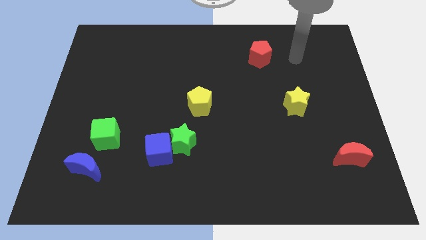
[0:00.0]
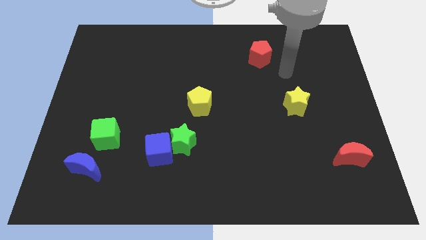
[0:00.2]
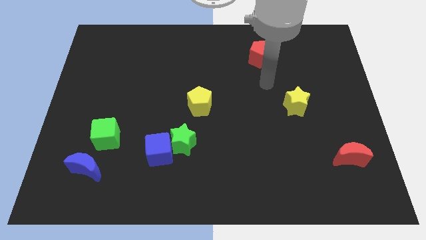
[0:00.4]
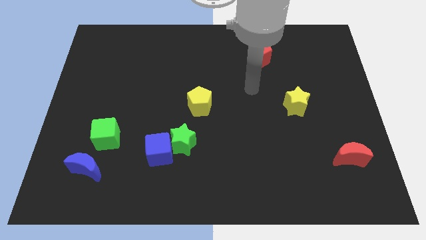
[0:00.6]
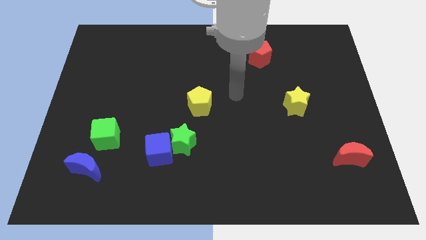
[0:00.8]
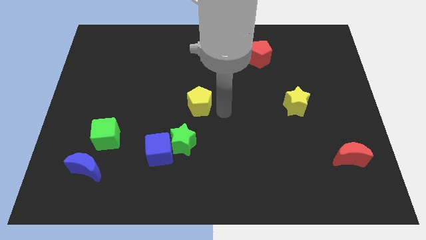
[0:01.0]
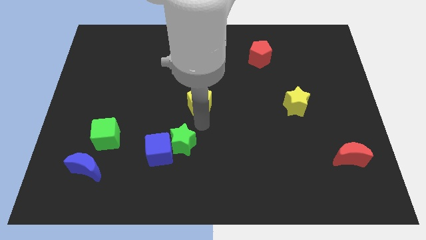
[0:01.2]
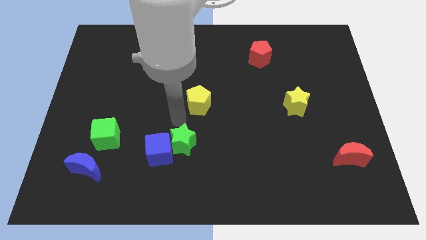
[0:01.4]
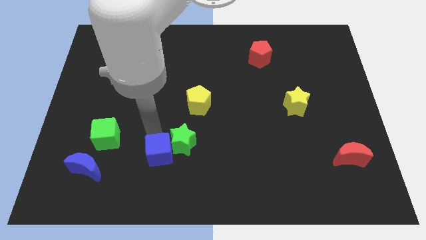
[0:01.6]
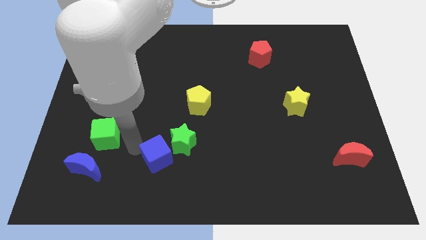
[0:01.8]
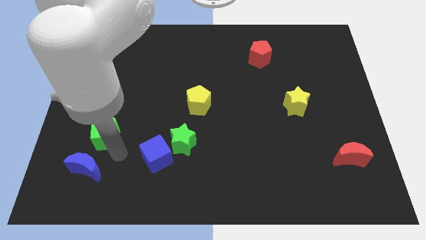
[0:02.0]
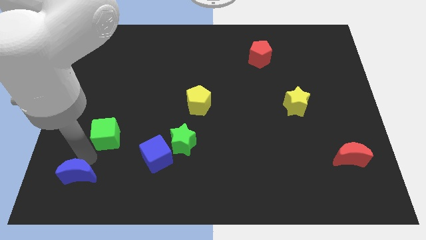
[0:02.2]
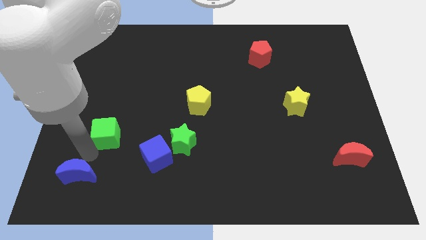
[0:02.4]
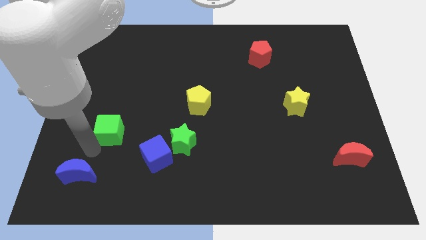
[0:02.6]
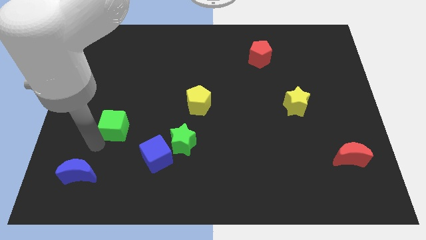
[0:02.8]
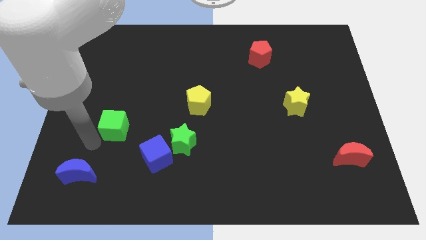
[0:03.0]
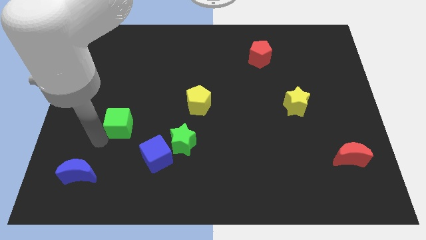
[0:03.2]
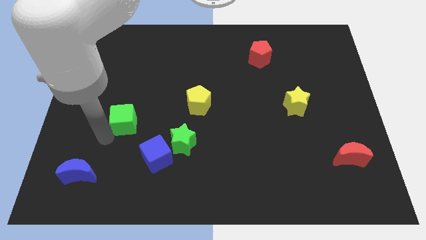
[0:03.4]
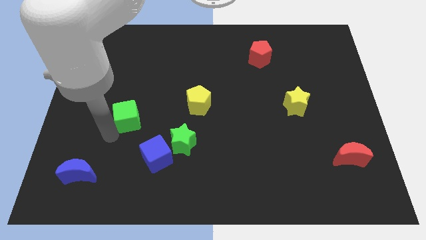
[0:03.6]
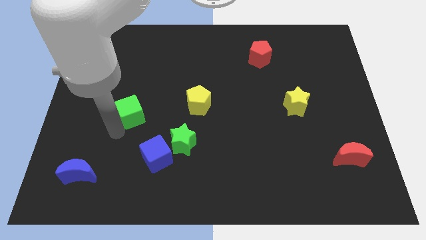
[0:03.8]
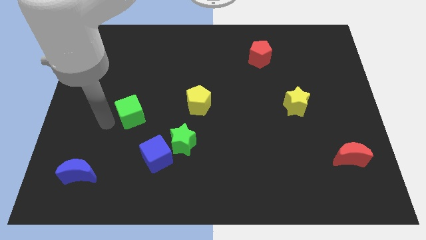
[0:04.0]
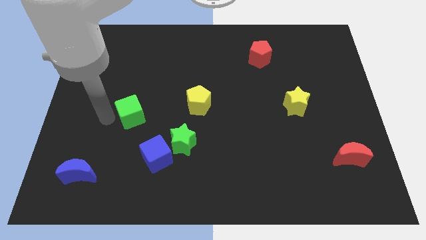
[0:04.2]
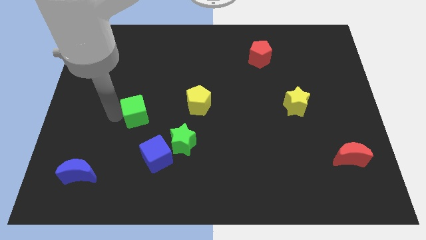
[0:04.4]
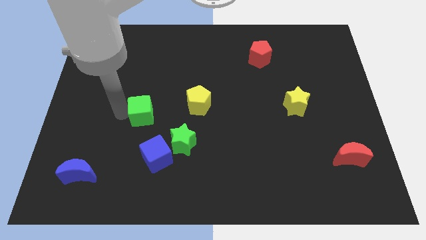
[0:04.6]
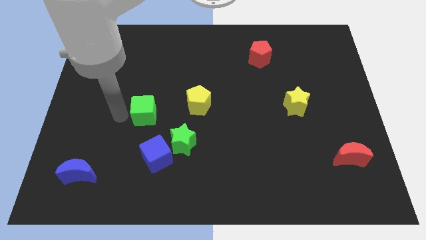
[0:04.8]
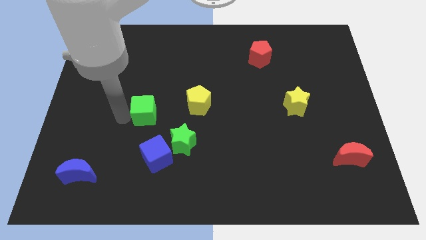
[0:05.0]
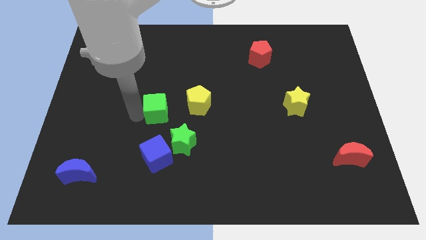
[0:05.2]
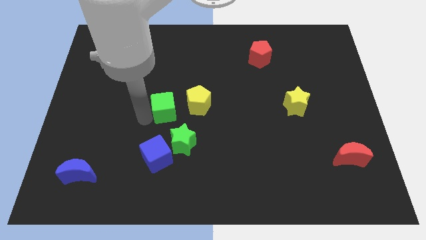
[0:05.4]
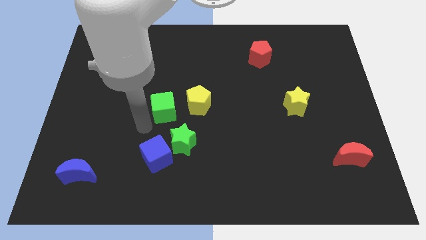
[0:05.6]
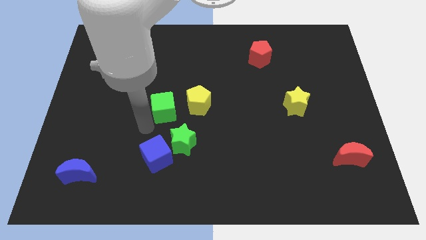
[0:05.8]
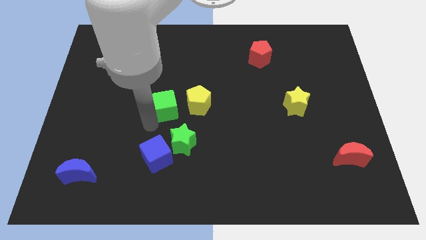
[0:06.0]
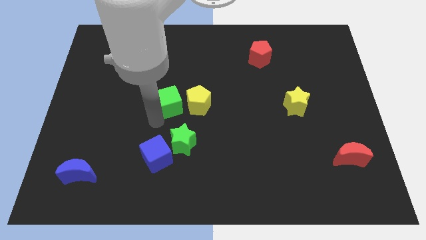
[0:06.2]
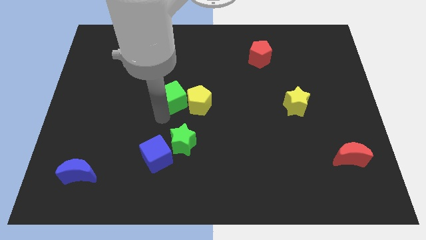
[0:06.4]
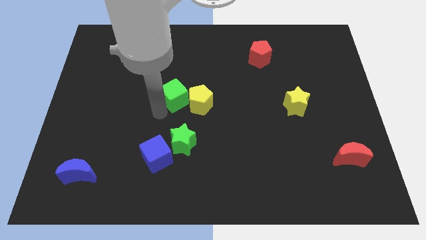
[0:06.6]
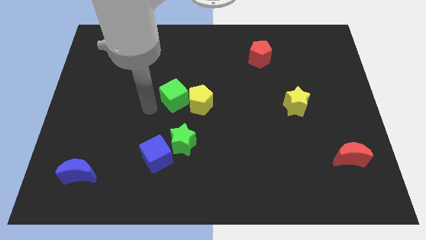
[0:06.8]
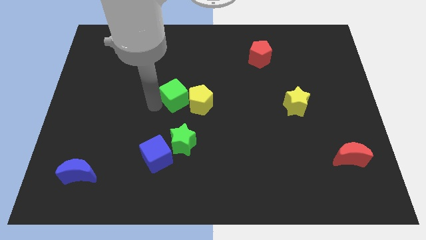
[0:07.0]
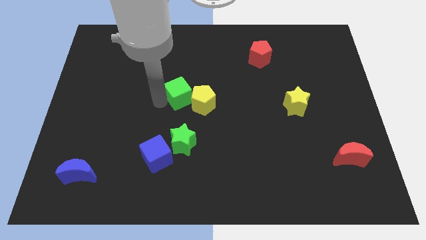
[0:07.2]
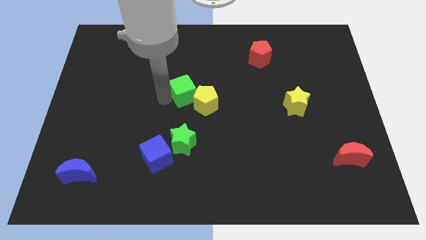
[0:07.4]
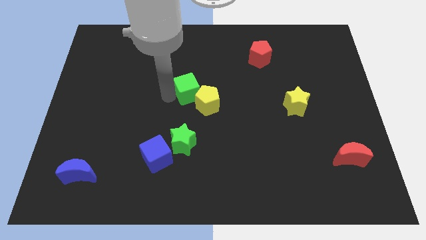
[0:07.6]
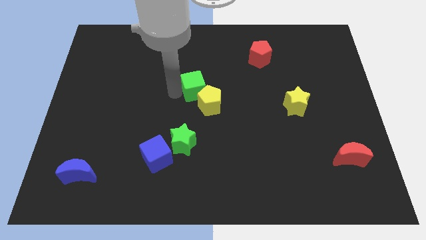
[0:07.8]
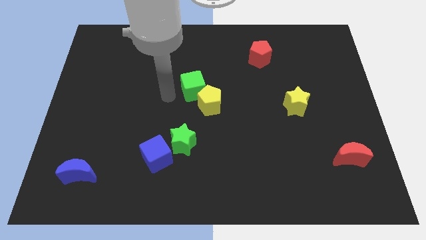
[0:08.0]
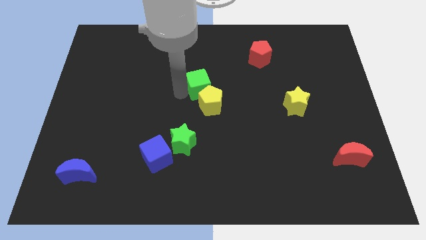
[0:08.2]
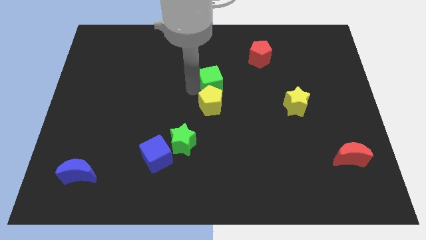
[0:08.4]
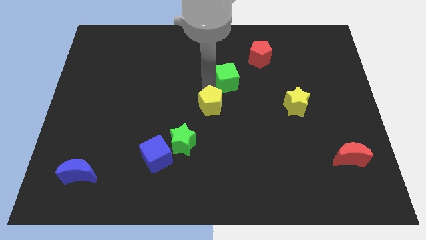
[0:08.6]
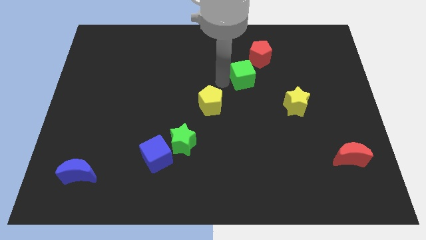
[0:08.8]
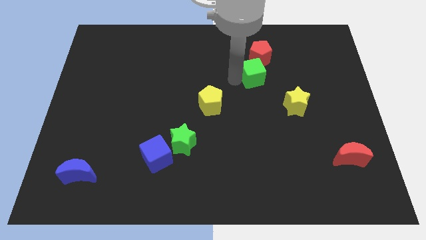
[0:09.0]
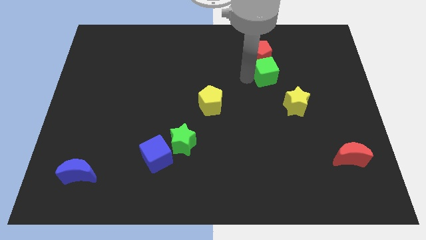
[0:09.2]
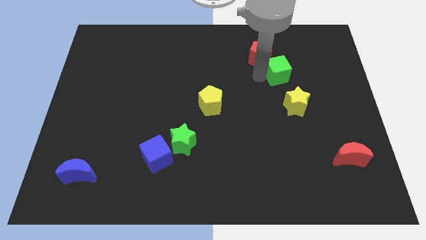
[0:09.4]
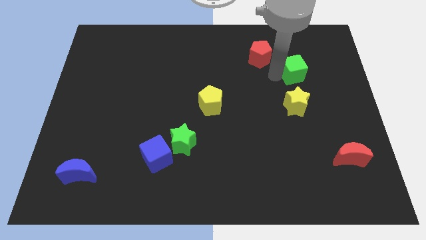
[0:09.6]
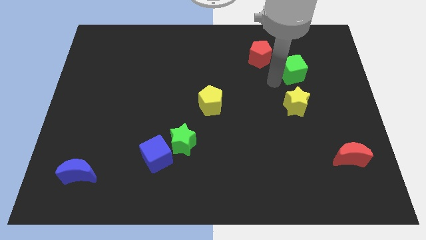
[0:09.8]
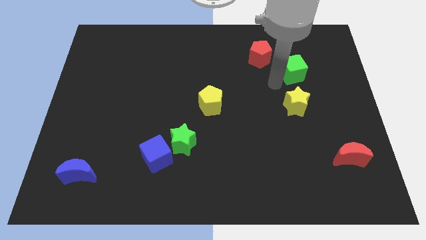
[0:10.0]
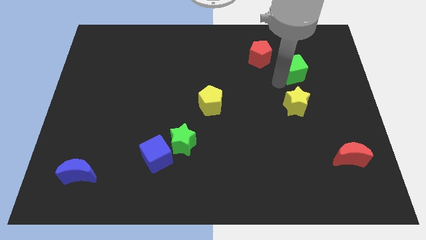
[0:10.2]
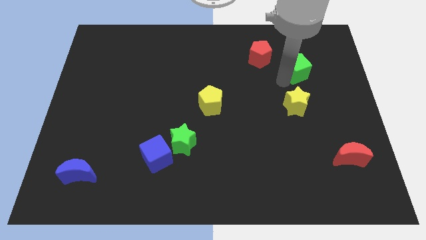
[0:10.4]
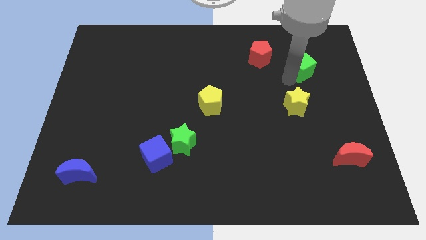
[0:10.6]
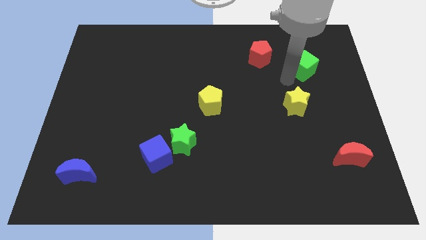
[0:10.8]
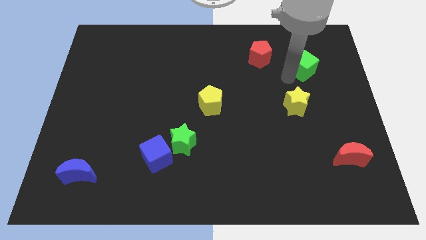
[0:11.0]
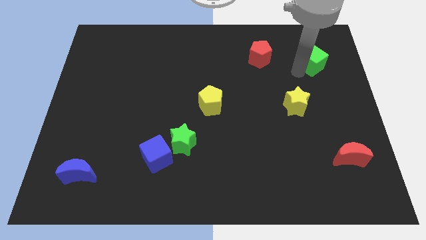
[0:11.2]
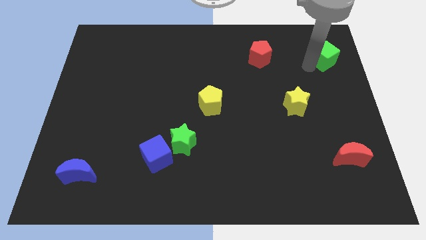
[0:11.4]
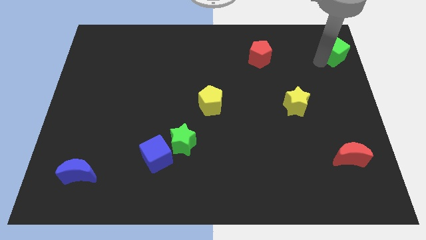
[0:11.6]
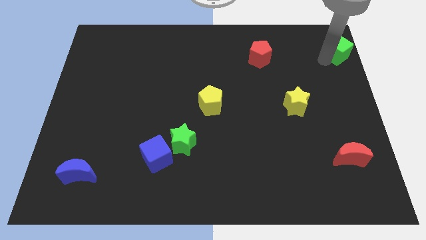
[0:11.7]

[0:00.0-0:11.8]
move the green cube to the top right of the board
